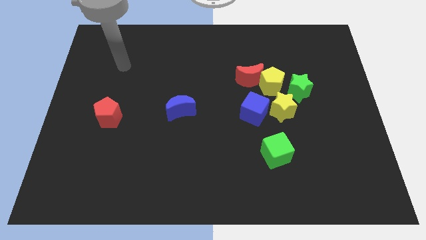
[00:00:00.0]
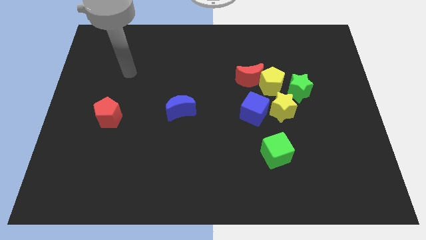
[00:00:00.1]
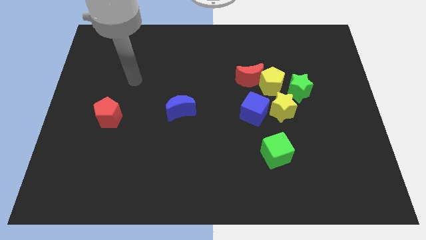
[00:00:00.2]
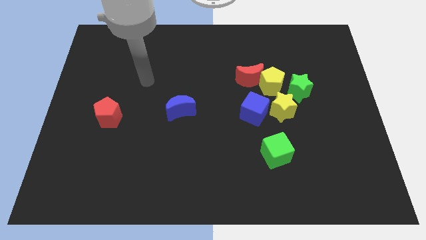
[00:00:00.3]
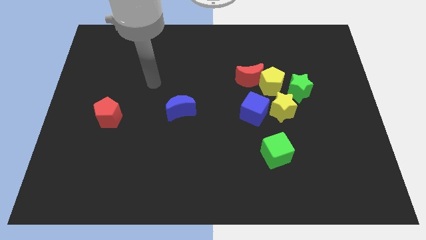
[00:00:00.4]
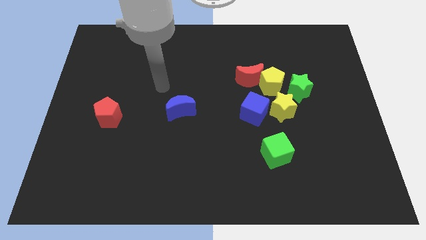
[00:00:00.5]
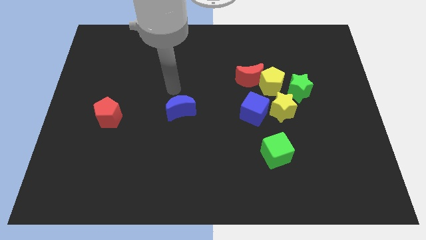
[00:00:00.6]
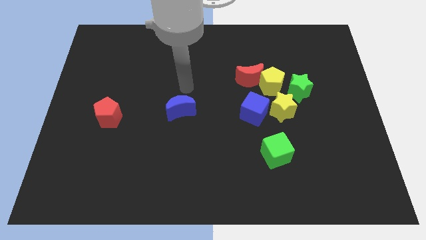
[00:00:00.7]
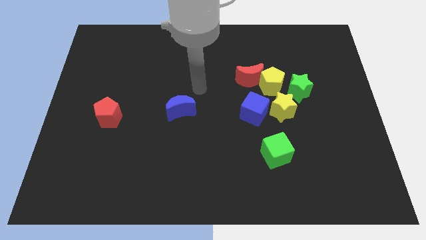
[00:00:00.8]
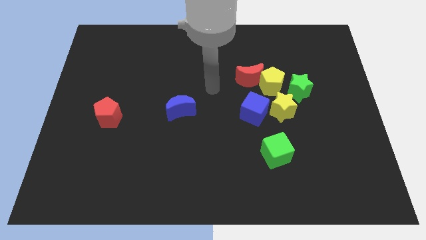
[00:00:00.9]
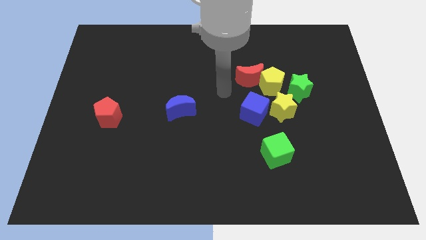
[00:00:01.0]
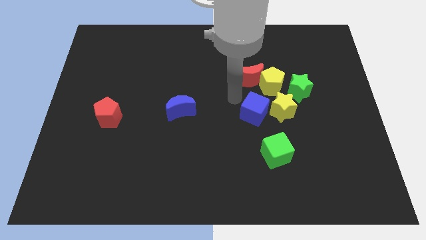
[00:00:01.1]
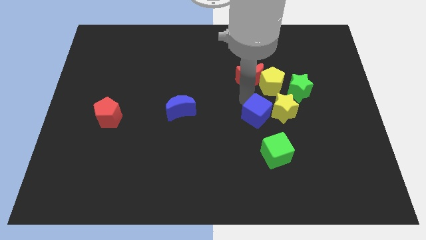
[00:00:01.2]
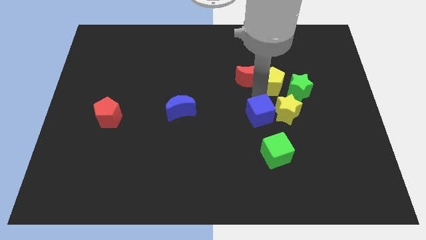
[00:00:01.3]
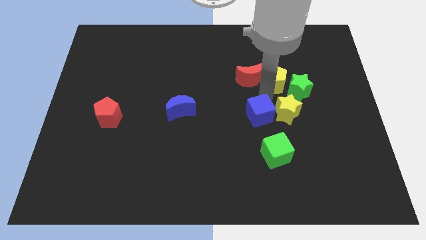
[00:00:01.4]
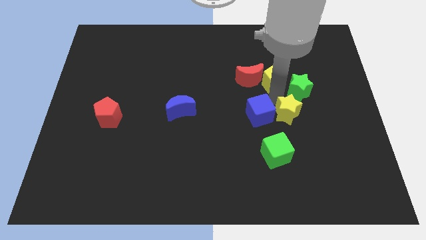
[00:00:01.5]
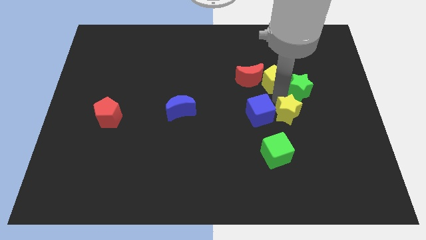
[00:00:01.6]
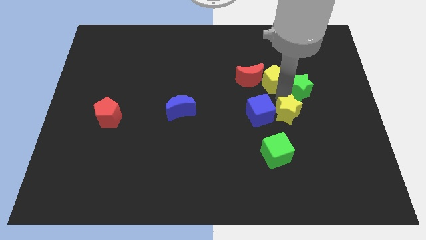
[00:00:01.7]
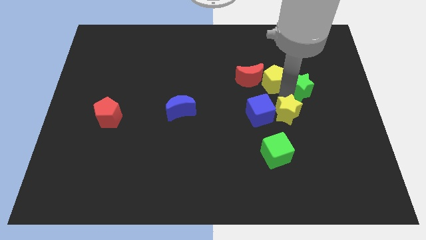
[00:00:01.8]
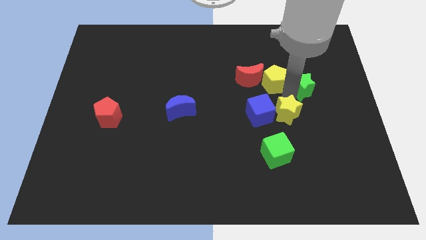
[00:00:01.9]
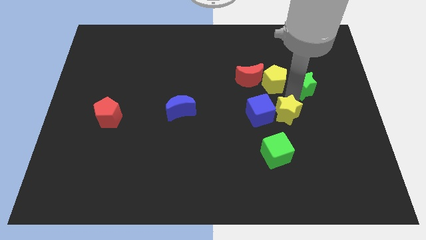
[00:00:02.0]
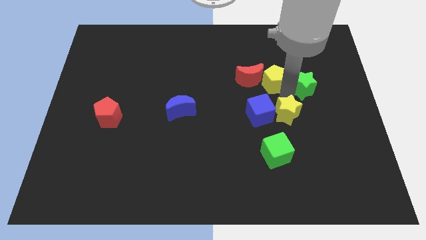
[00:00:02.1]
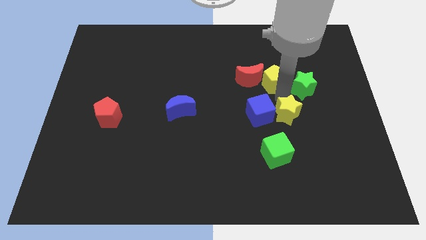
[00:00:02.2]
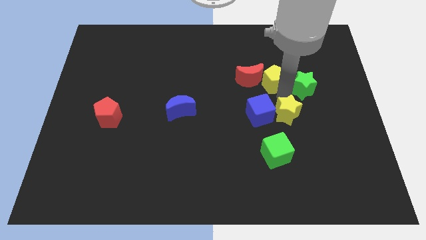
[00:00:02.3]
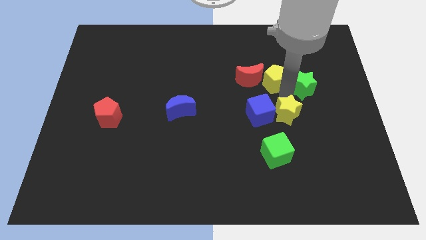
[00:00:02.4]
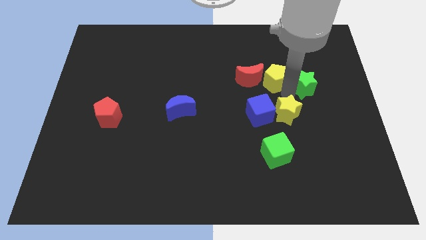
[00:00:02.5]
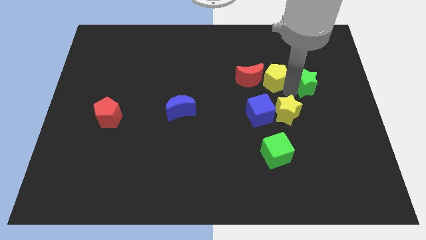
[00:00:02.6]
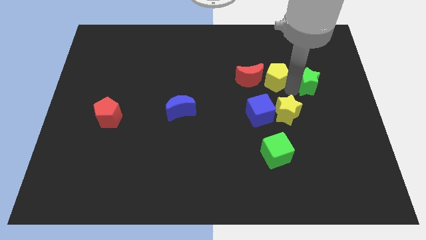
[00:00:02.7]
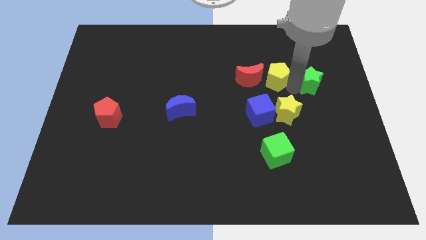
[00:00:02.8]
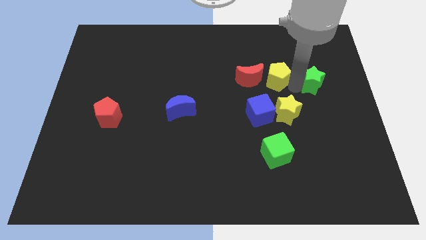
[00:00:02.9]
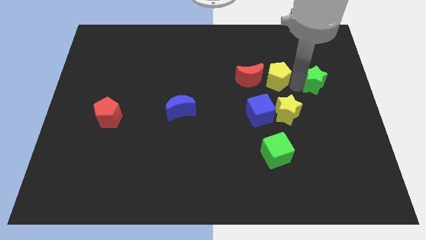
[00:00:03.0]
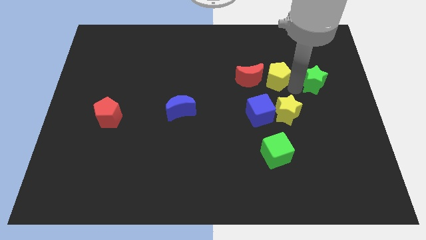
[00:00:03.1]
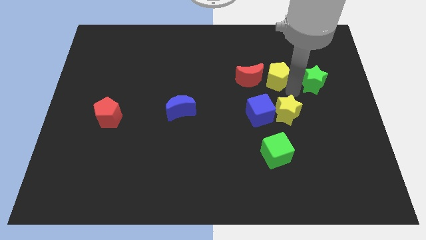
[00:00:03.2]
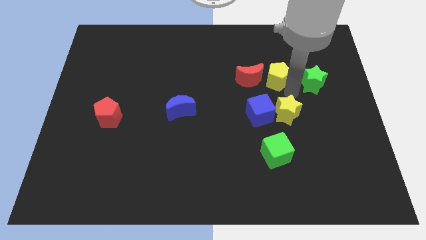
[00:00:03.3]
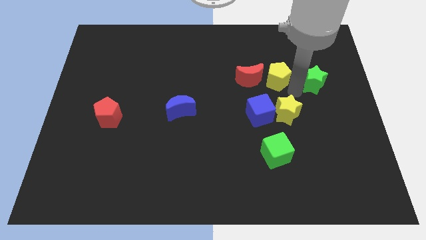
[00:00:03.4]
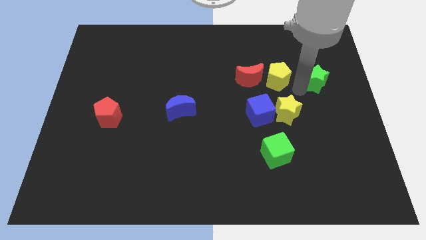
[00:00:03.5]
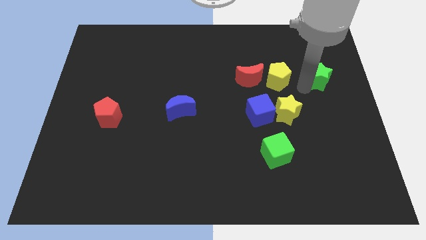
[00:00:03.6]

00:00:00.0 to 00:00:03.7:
pull the green star apart from the yellow pentagon and yellow star

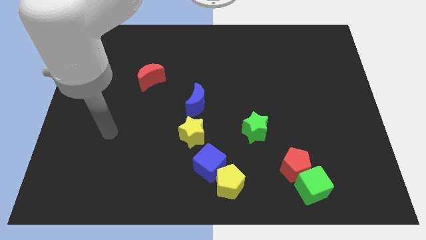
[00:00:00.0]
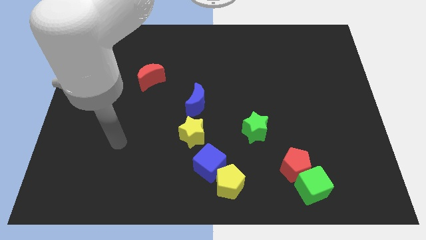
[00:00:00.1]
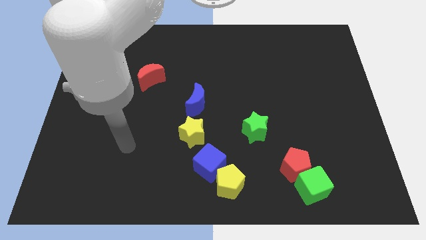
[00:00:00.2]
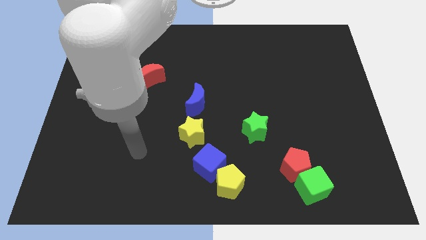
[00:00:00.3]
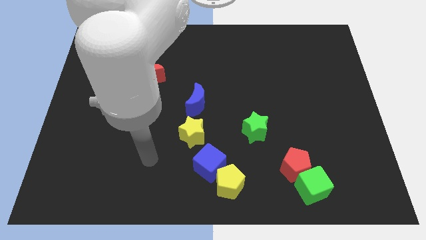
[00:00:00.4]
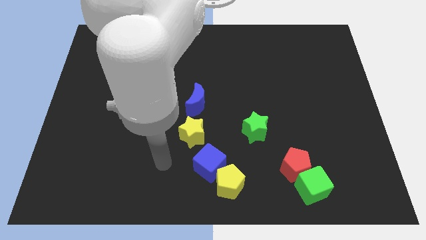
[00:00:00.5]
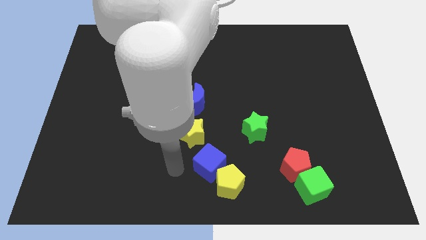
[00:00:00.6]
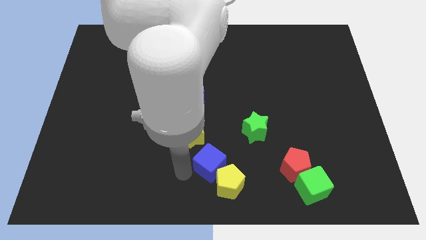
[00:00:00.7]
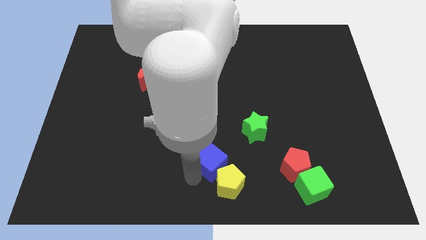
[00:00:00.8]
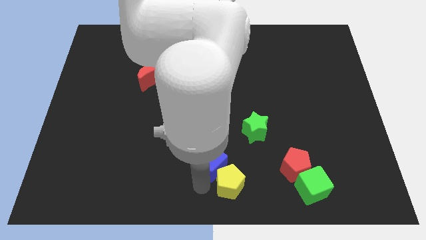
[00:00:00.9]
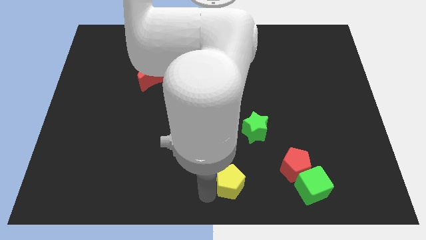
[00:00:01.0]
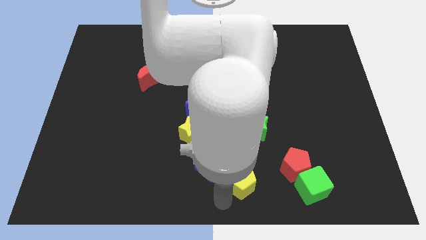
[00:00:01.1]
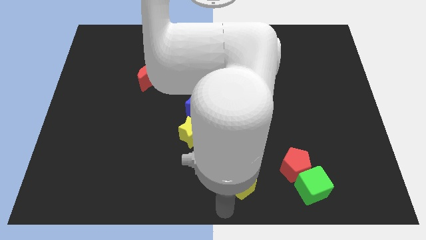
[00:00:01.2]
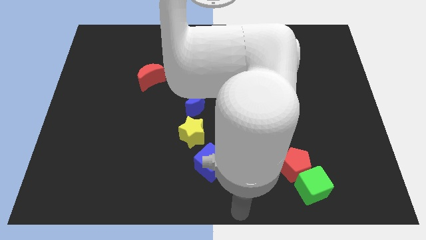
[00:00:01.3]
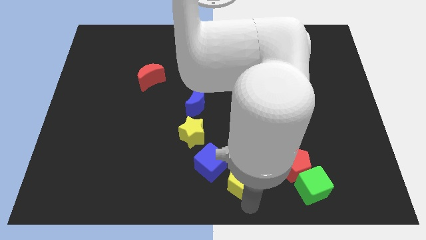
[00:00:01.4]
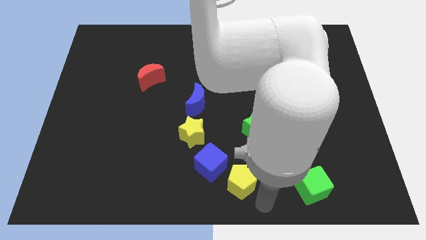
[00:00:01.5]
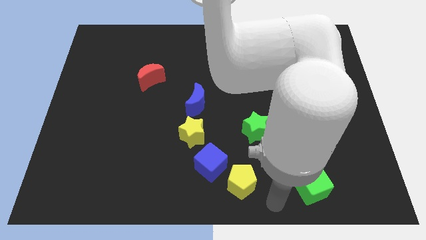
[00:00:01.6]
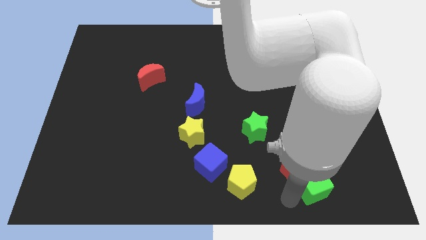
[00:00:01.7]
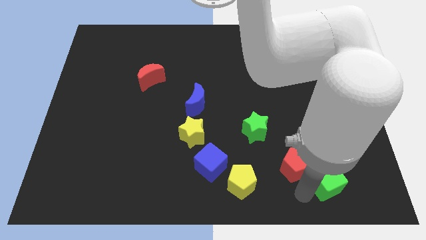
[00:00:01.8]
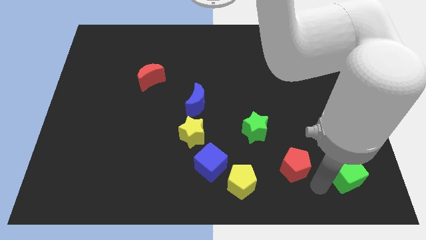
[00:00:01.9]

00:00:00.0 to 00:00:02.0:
move the red pentagon away from the green cube

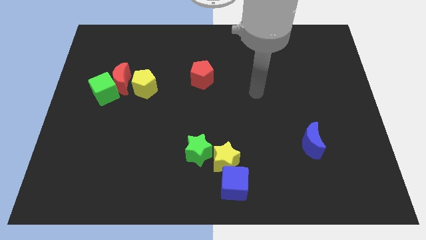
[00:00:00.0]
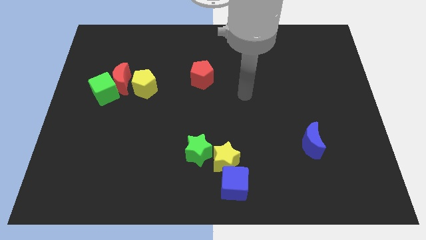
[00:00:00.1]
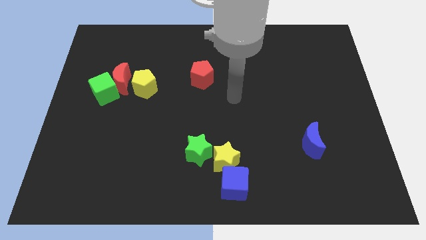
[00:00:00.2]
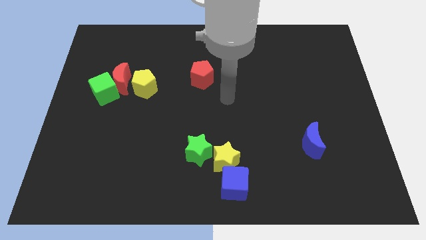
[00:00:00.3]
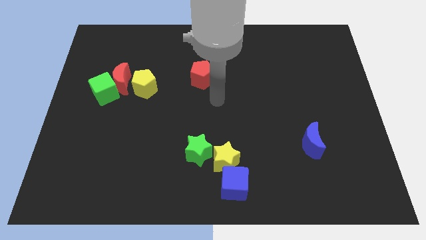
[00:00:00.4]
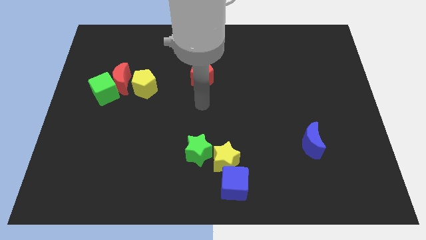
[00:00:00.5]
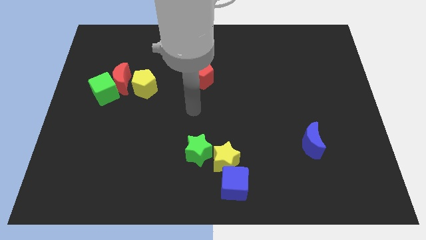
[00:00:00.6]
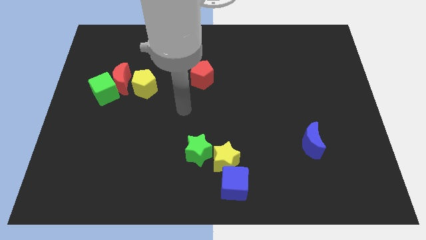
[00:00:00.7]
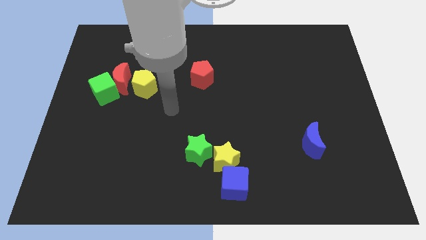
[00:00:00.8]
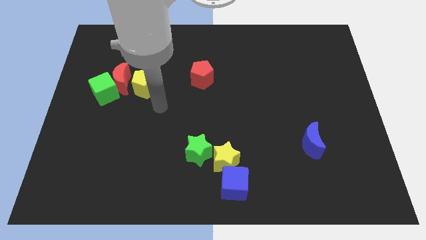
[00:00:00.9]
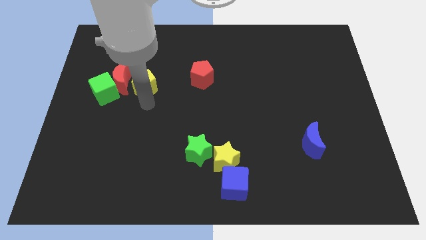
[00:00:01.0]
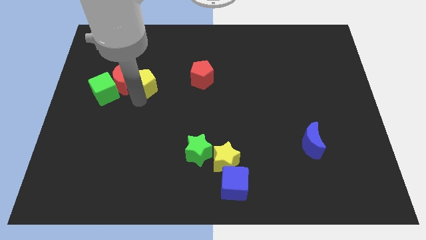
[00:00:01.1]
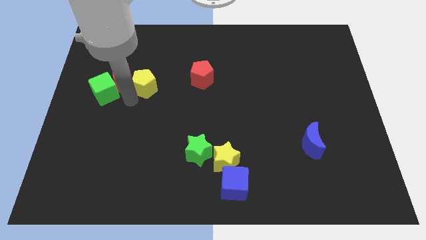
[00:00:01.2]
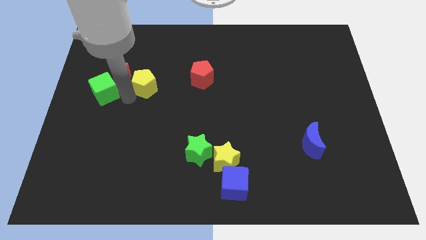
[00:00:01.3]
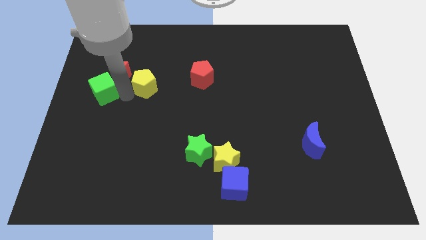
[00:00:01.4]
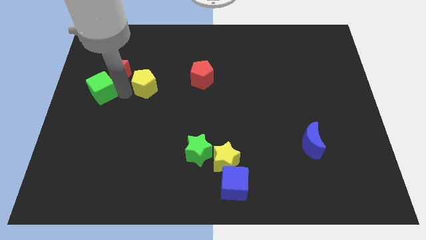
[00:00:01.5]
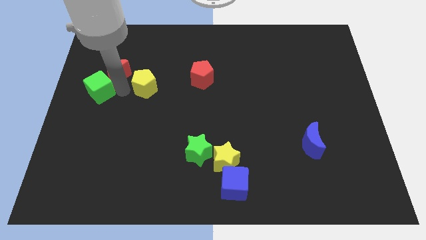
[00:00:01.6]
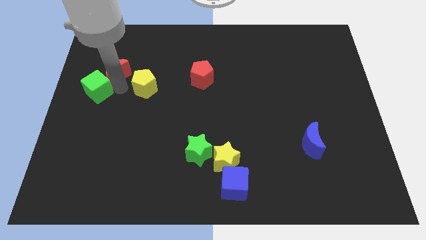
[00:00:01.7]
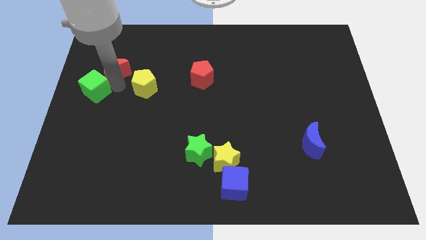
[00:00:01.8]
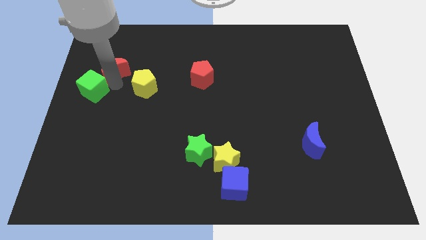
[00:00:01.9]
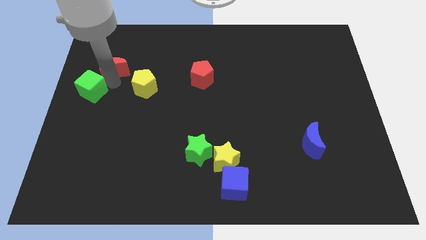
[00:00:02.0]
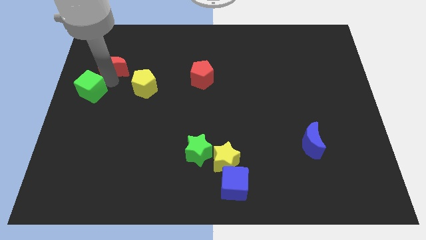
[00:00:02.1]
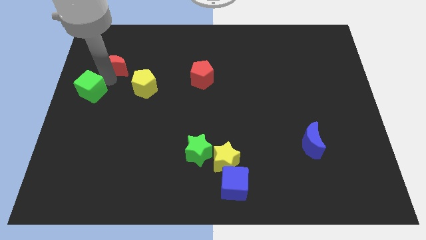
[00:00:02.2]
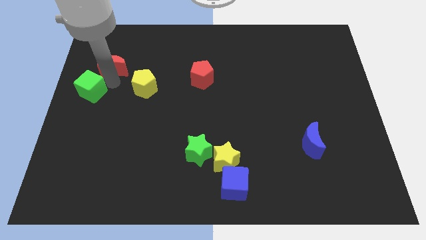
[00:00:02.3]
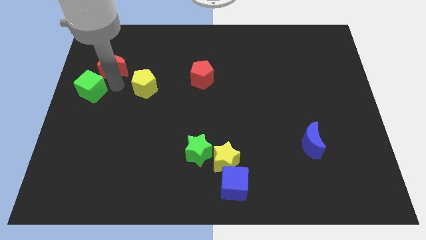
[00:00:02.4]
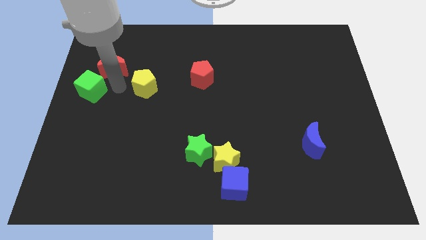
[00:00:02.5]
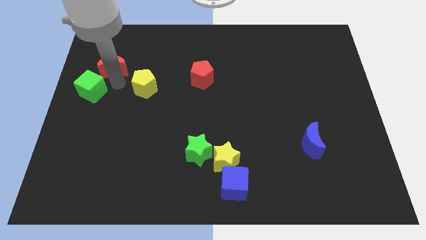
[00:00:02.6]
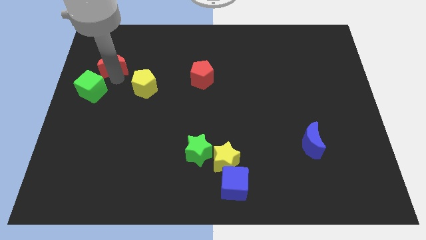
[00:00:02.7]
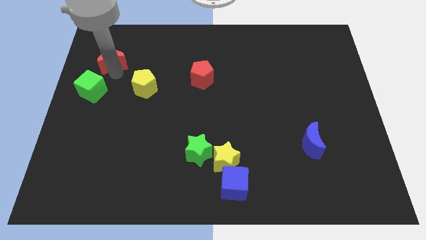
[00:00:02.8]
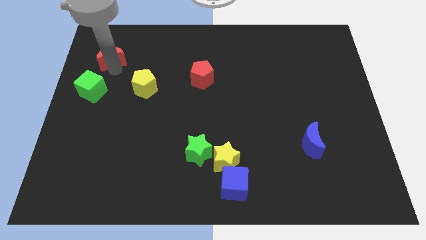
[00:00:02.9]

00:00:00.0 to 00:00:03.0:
move the red moon away from the green cube and yellow pentagon

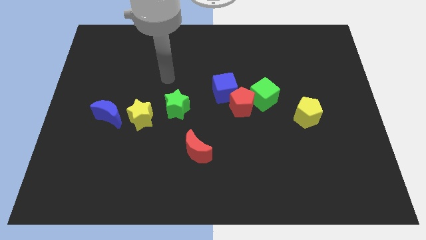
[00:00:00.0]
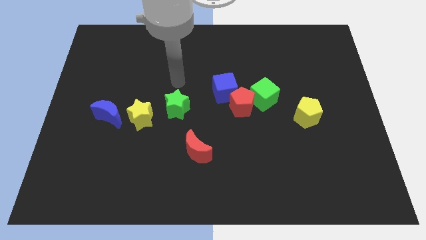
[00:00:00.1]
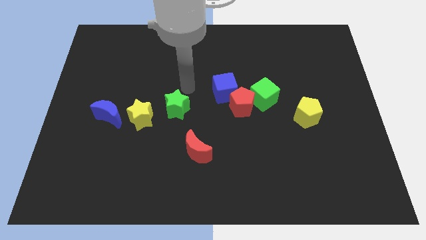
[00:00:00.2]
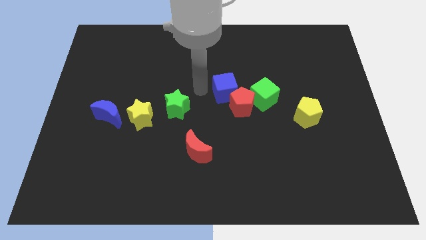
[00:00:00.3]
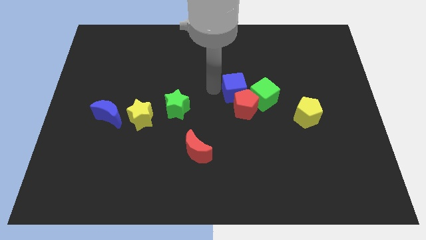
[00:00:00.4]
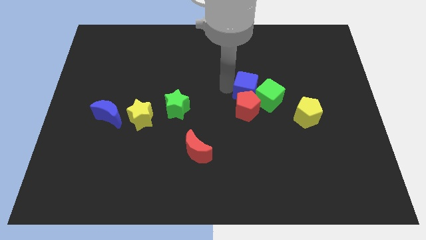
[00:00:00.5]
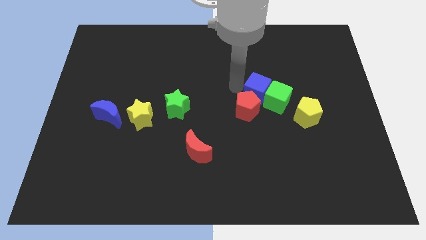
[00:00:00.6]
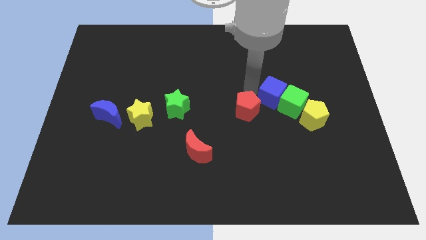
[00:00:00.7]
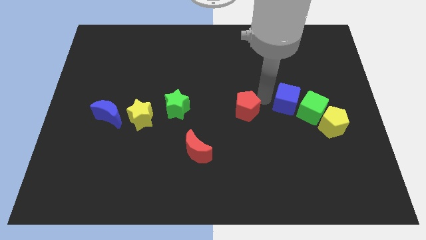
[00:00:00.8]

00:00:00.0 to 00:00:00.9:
pull the red pentagon apart from the green cube and blue cube
